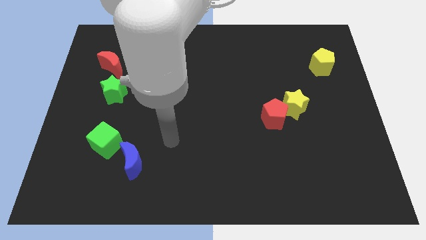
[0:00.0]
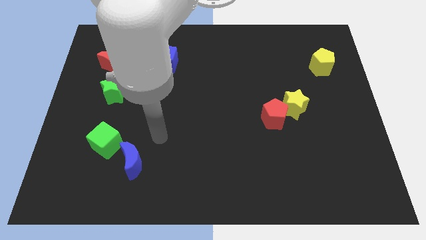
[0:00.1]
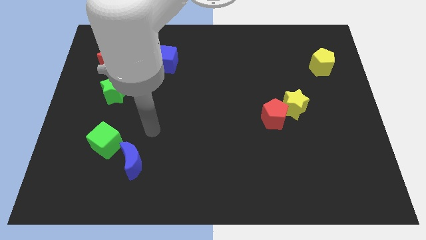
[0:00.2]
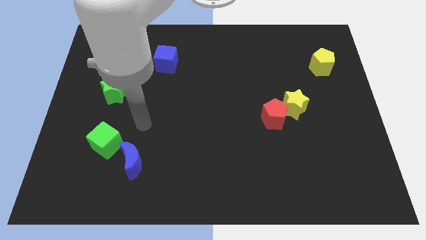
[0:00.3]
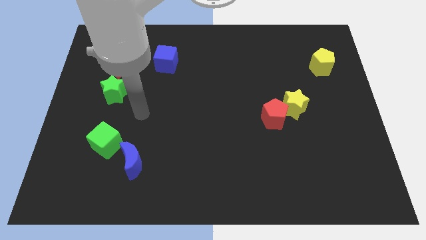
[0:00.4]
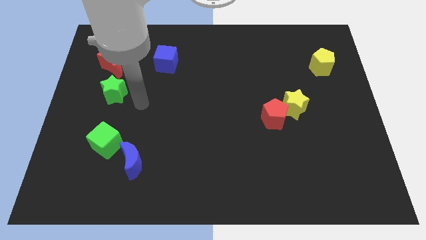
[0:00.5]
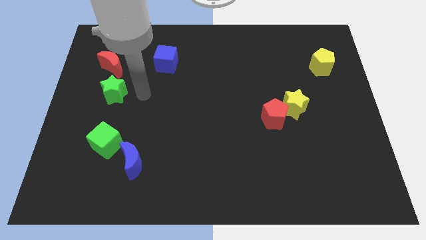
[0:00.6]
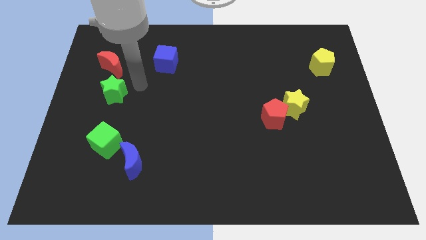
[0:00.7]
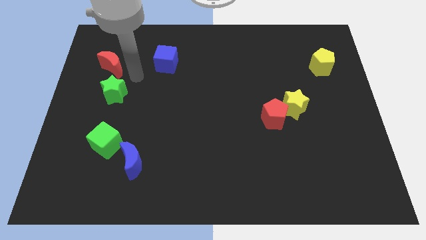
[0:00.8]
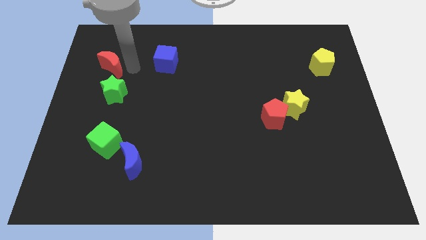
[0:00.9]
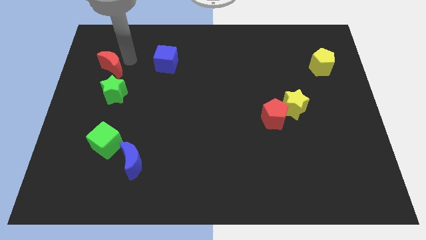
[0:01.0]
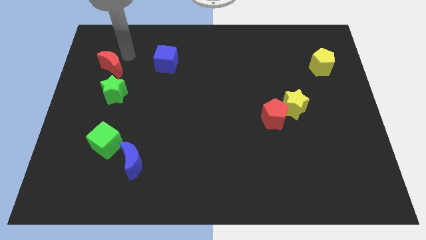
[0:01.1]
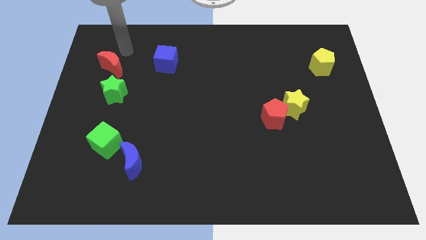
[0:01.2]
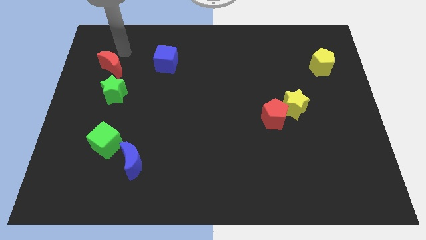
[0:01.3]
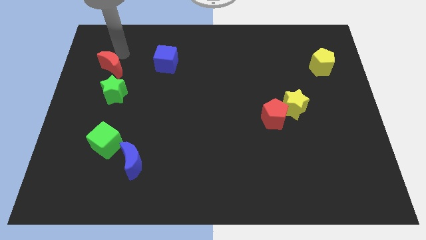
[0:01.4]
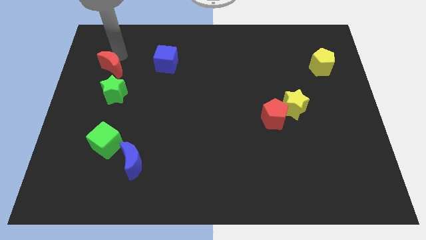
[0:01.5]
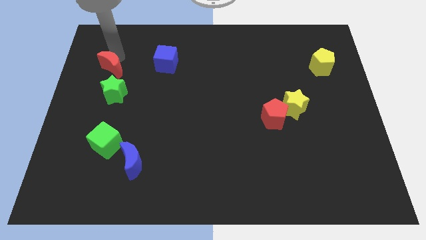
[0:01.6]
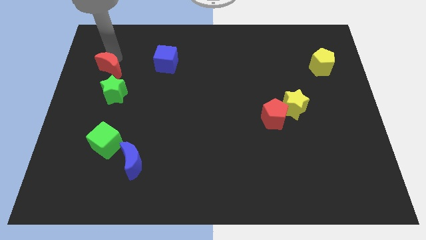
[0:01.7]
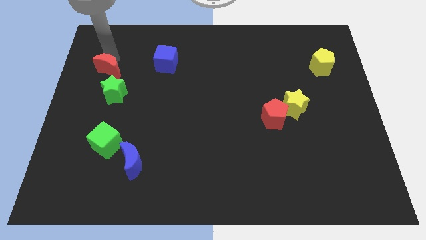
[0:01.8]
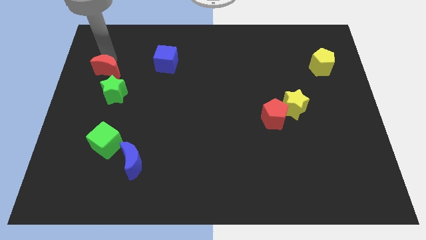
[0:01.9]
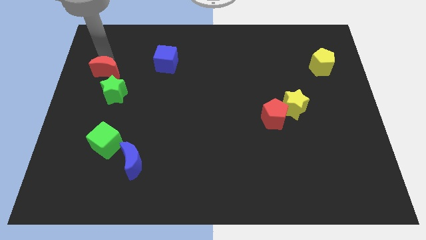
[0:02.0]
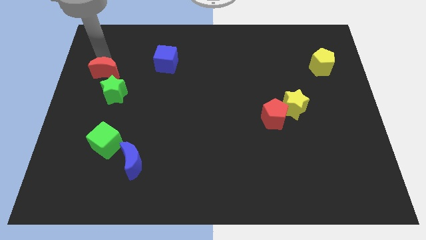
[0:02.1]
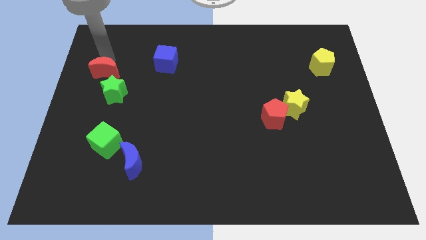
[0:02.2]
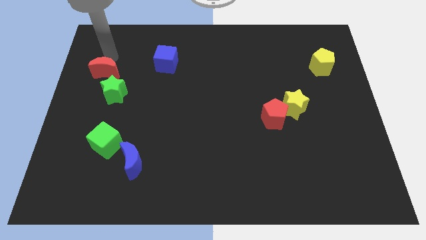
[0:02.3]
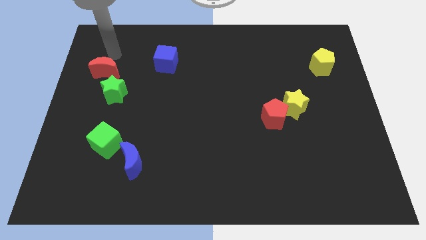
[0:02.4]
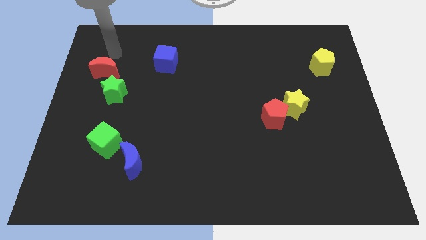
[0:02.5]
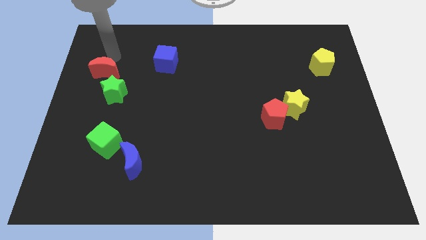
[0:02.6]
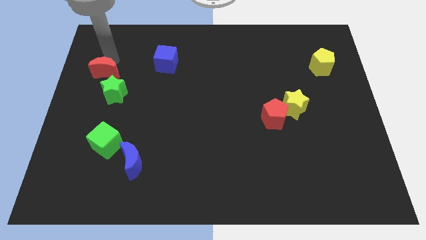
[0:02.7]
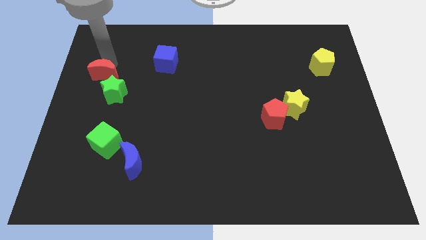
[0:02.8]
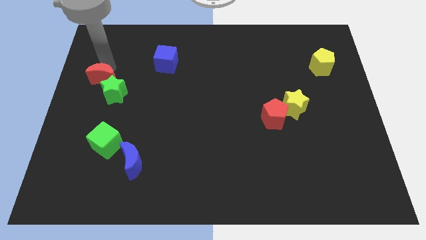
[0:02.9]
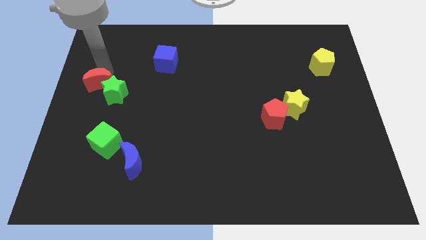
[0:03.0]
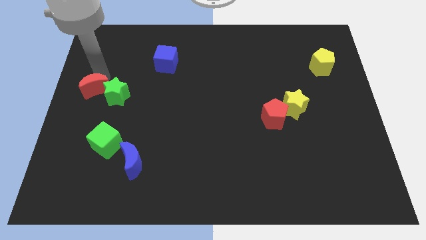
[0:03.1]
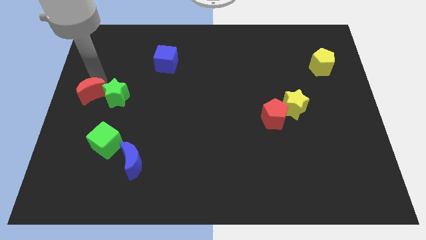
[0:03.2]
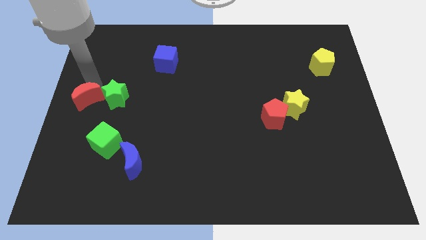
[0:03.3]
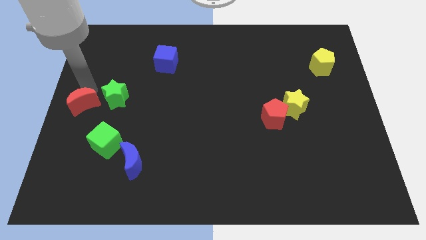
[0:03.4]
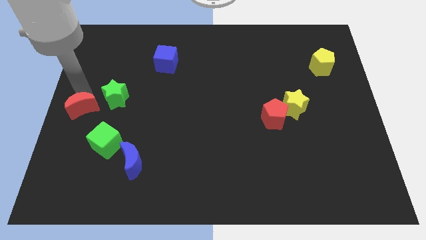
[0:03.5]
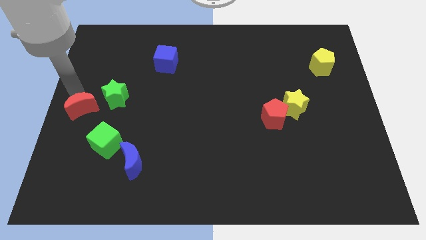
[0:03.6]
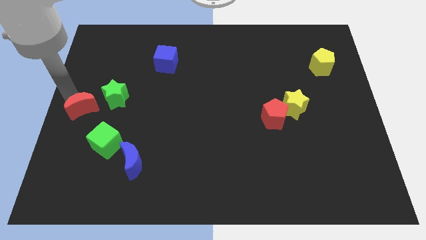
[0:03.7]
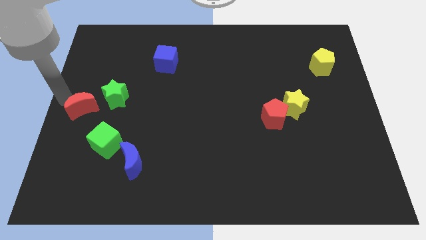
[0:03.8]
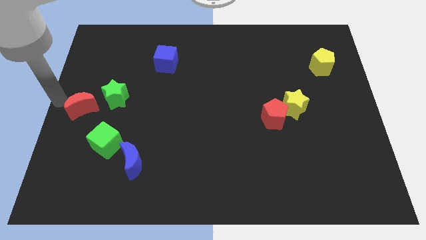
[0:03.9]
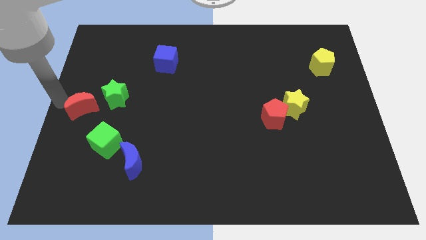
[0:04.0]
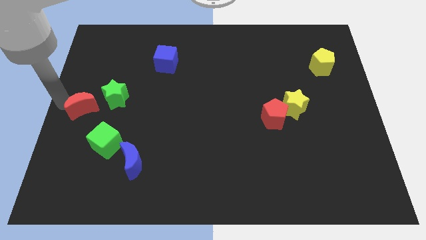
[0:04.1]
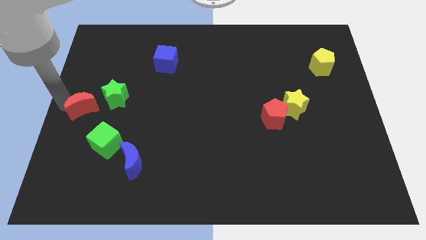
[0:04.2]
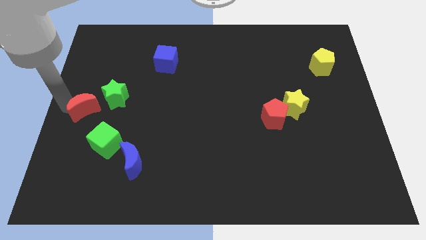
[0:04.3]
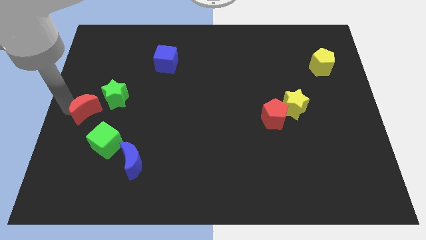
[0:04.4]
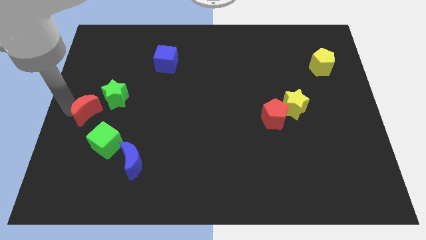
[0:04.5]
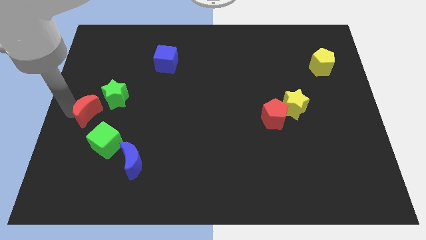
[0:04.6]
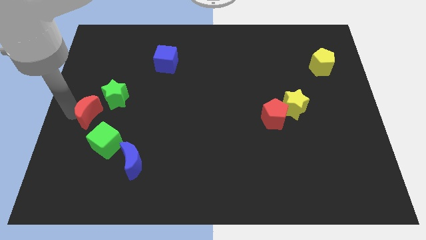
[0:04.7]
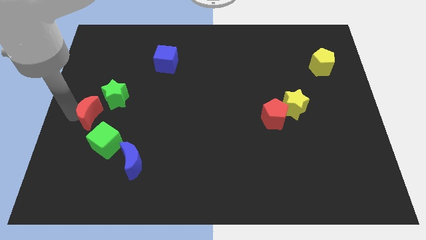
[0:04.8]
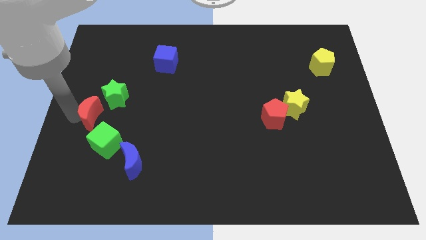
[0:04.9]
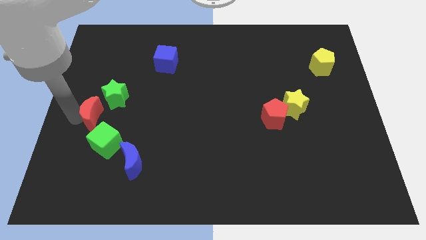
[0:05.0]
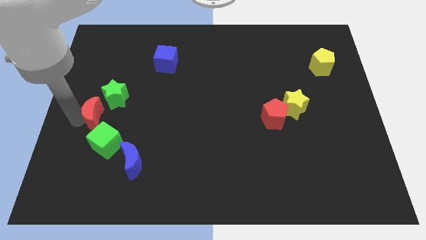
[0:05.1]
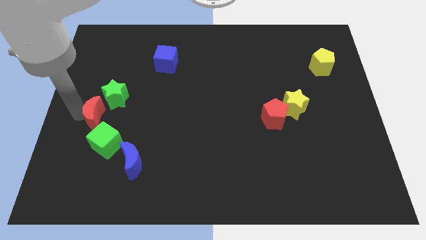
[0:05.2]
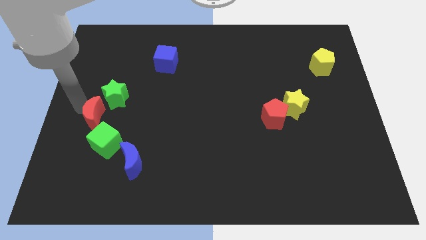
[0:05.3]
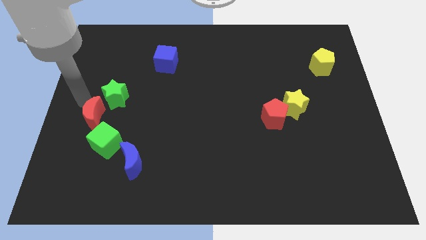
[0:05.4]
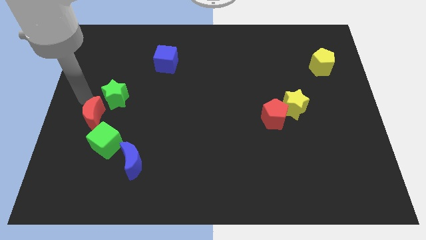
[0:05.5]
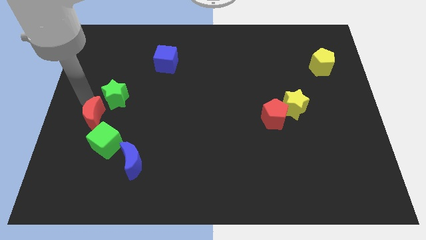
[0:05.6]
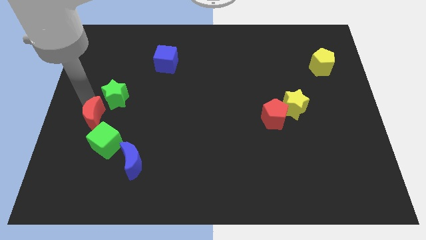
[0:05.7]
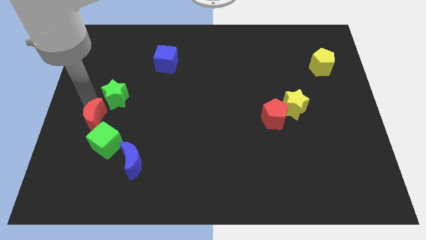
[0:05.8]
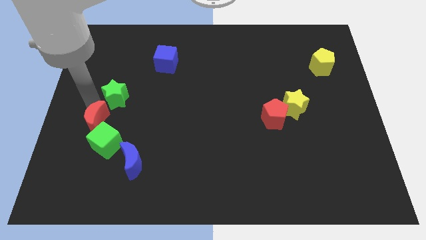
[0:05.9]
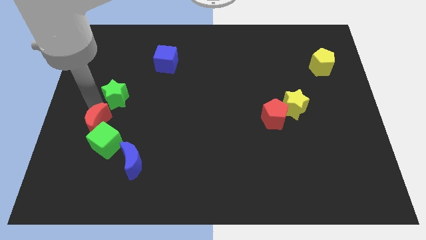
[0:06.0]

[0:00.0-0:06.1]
slide the red moon to the green cube

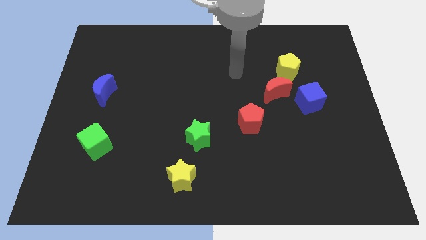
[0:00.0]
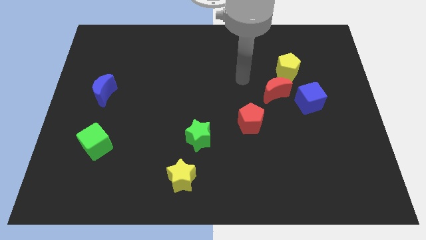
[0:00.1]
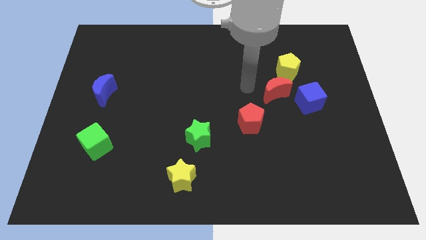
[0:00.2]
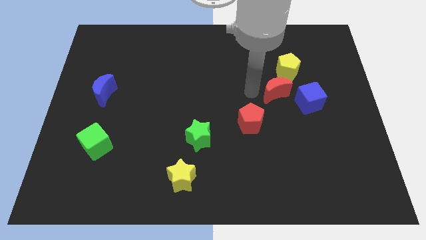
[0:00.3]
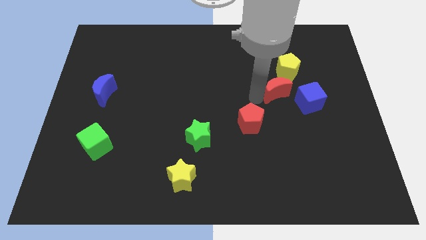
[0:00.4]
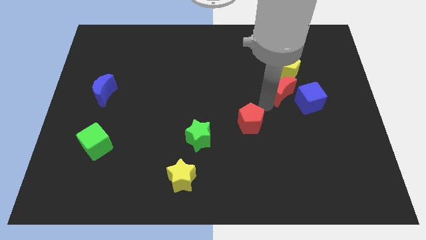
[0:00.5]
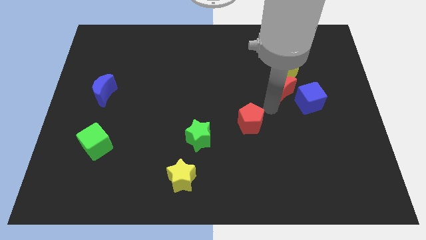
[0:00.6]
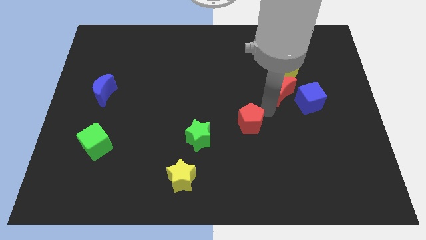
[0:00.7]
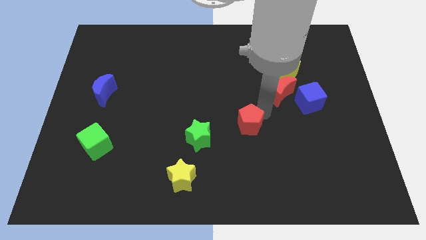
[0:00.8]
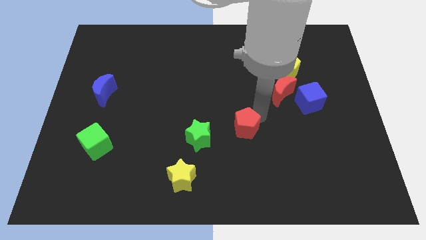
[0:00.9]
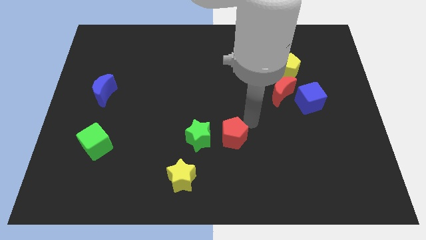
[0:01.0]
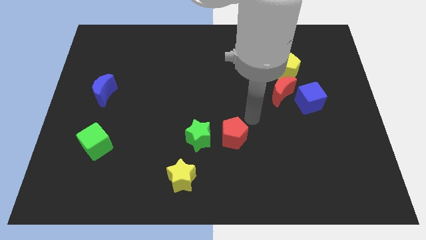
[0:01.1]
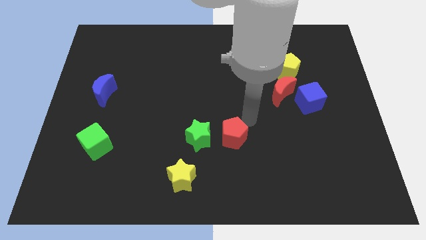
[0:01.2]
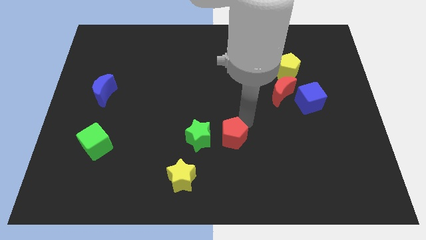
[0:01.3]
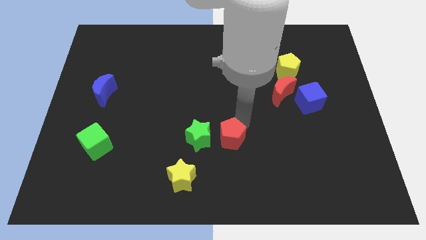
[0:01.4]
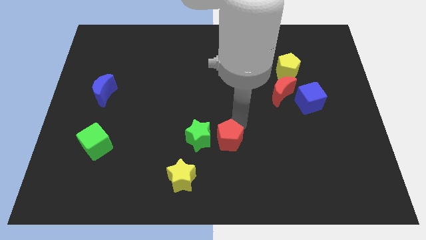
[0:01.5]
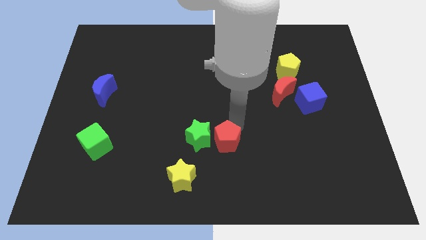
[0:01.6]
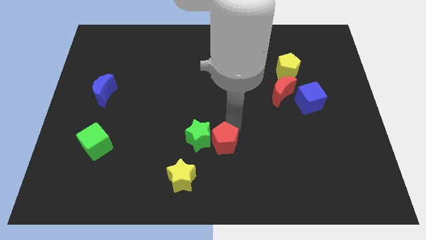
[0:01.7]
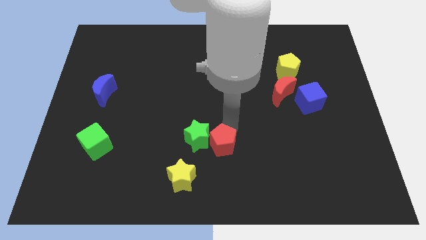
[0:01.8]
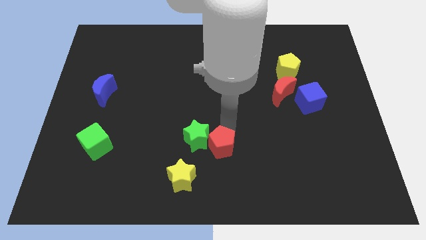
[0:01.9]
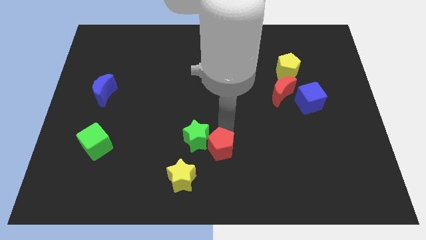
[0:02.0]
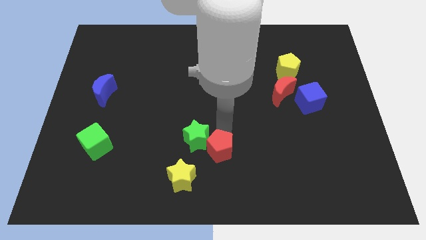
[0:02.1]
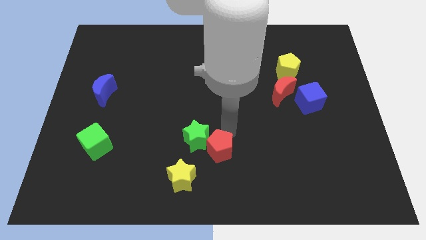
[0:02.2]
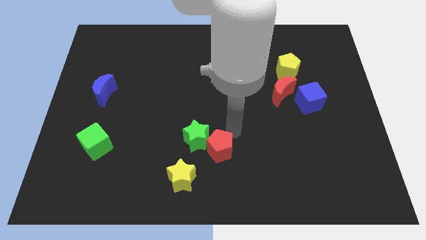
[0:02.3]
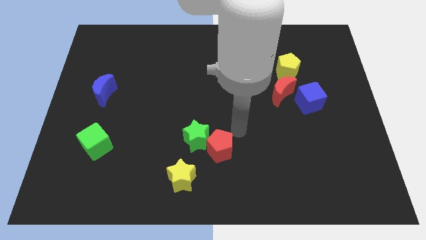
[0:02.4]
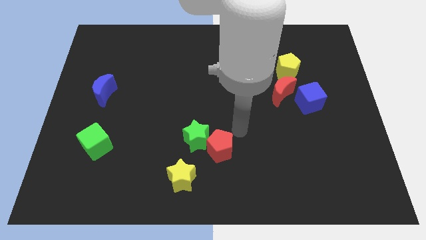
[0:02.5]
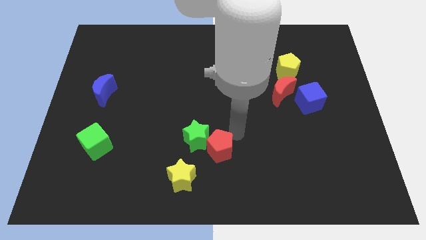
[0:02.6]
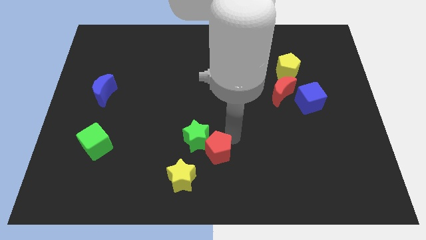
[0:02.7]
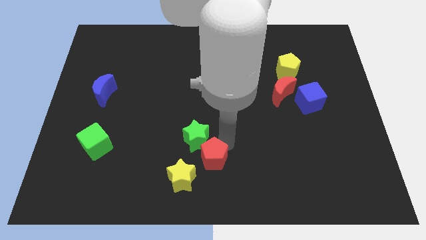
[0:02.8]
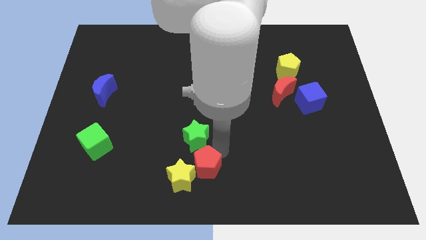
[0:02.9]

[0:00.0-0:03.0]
move the red pentagon close to the yellow star
